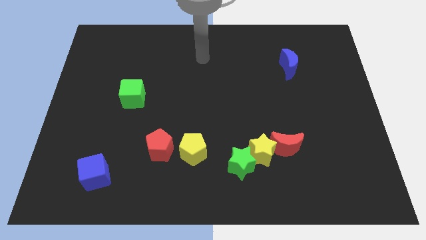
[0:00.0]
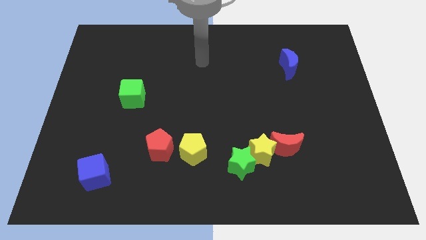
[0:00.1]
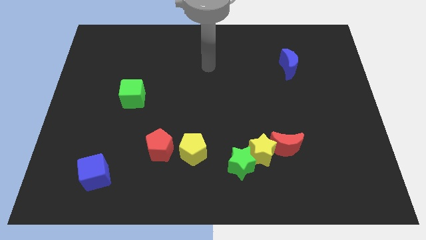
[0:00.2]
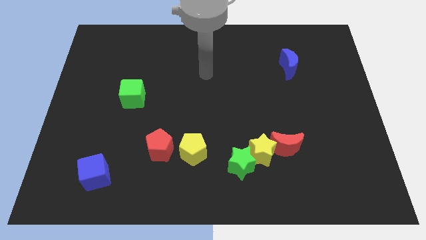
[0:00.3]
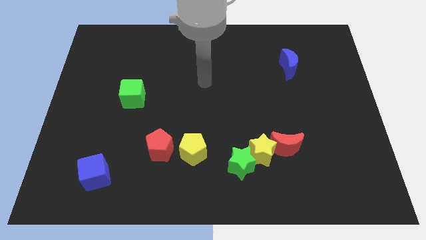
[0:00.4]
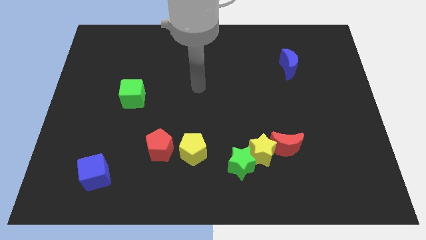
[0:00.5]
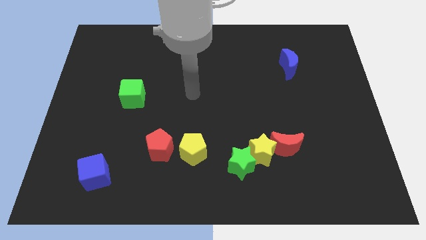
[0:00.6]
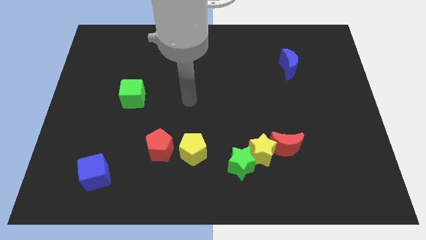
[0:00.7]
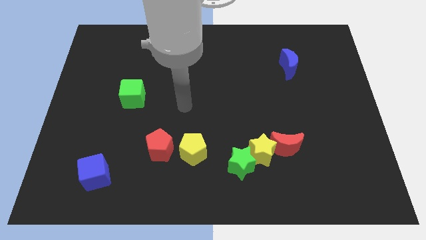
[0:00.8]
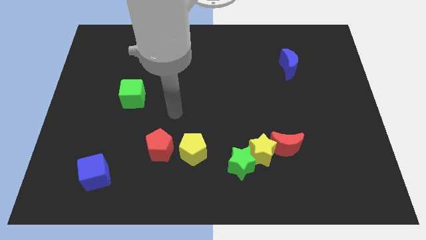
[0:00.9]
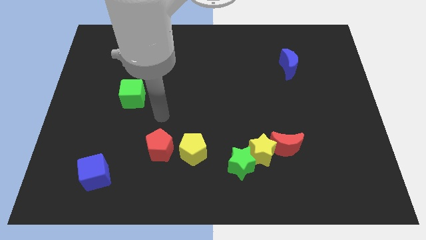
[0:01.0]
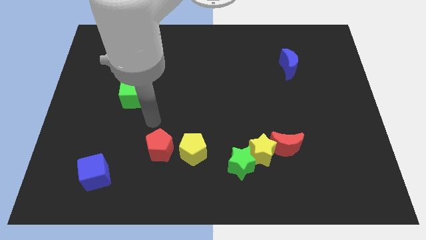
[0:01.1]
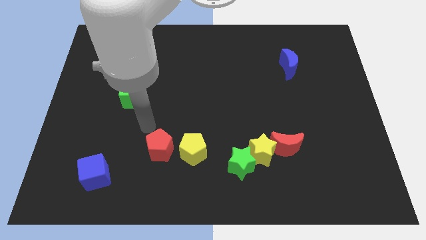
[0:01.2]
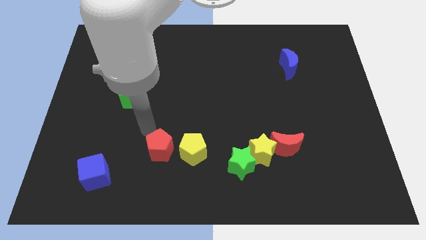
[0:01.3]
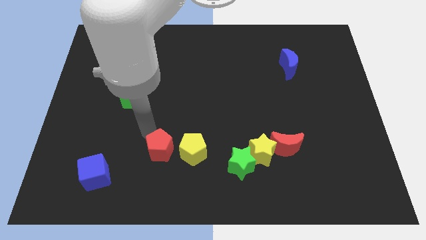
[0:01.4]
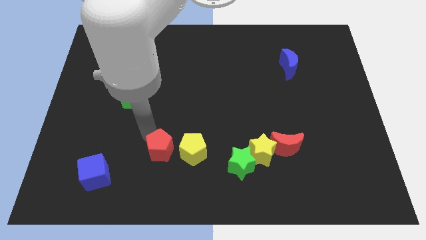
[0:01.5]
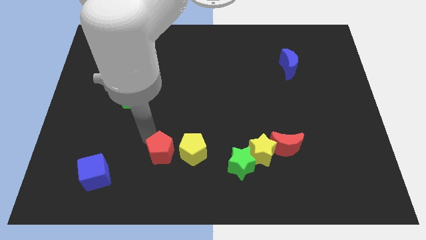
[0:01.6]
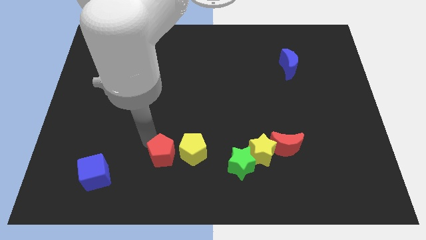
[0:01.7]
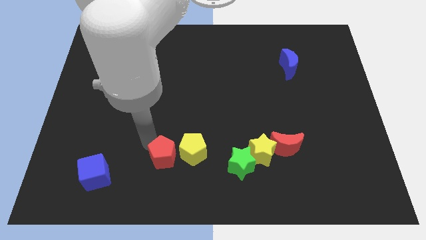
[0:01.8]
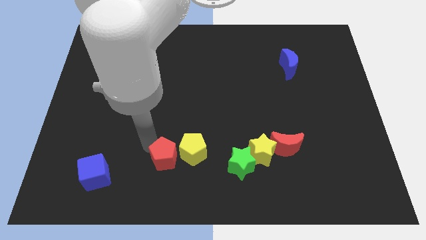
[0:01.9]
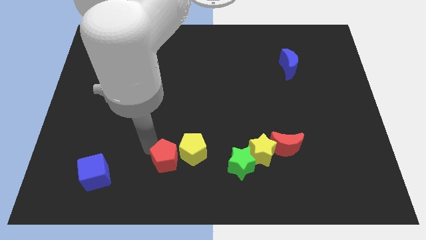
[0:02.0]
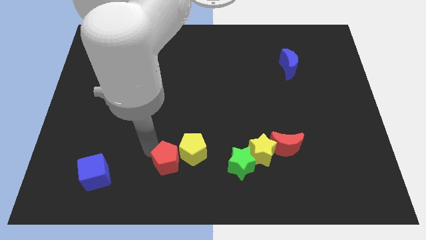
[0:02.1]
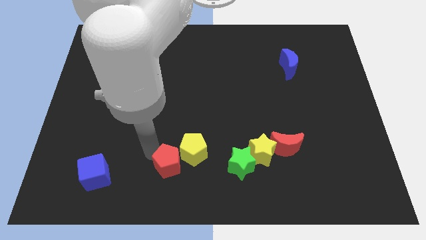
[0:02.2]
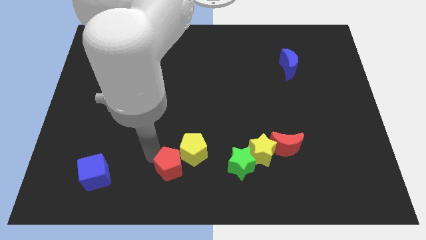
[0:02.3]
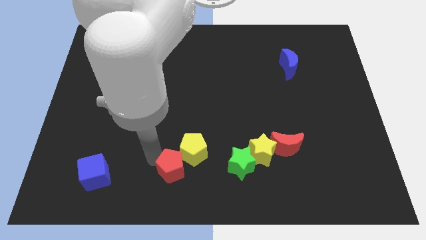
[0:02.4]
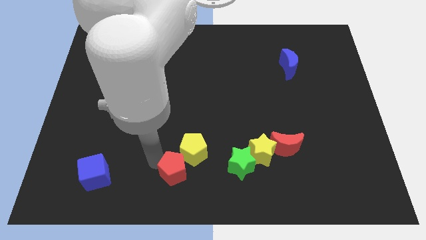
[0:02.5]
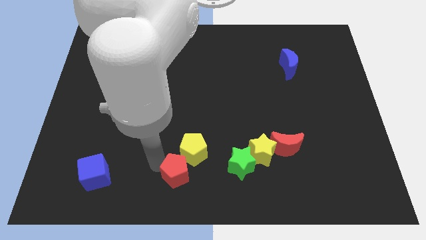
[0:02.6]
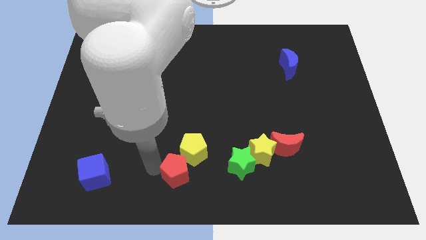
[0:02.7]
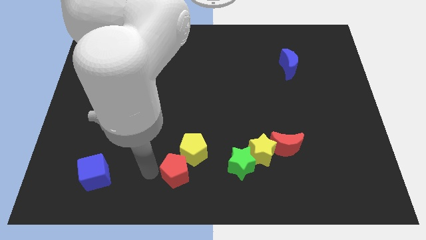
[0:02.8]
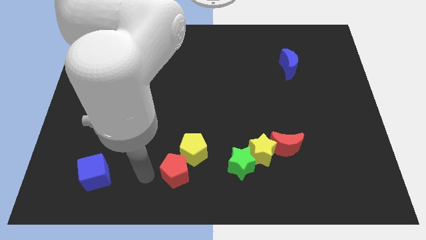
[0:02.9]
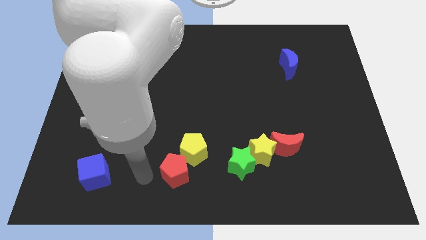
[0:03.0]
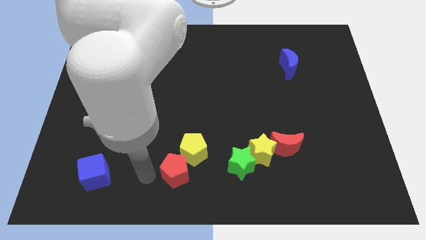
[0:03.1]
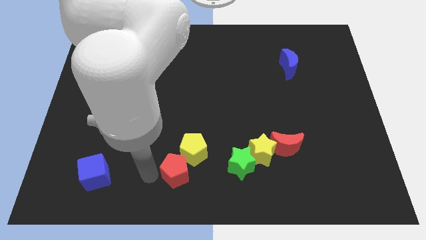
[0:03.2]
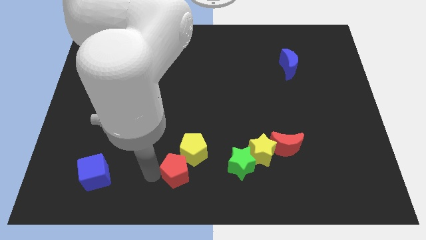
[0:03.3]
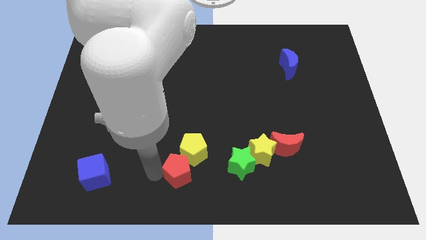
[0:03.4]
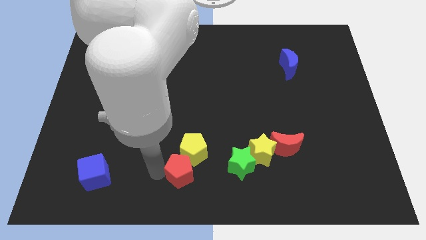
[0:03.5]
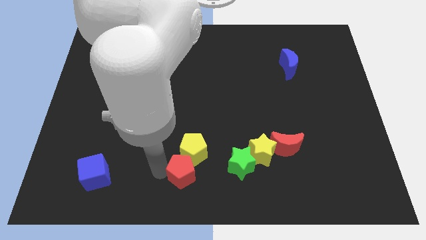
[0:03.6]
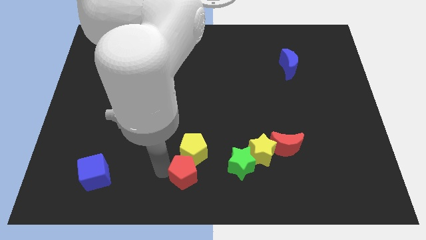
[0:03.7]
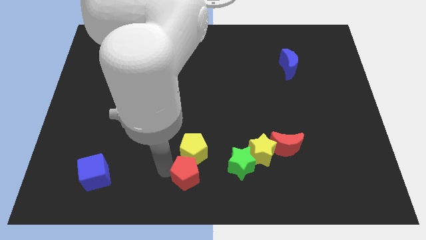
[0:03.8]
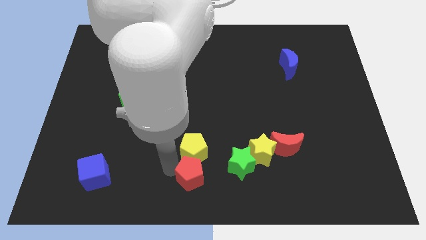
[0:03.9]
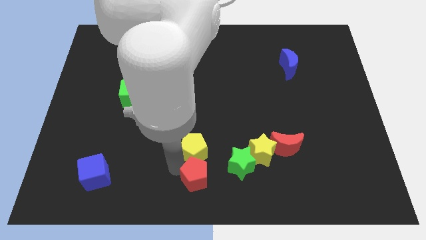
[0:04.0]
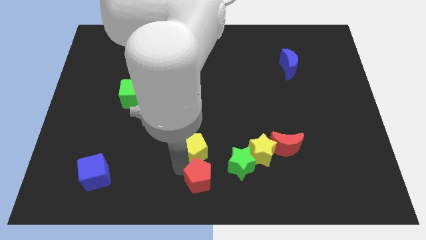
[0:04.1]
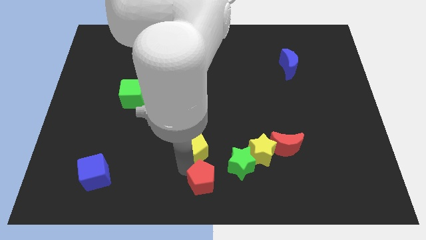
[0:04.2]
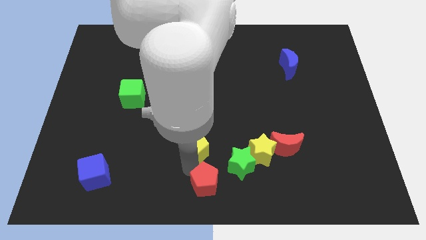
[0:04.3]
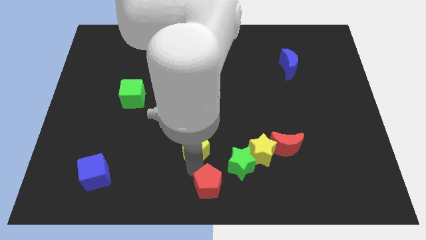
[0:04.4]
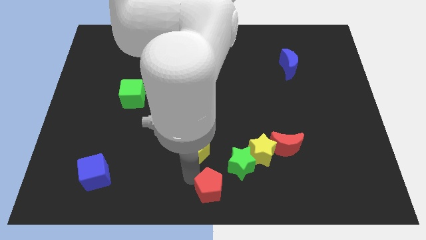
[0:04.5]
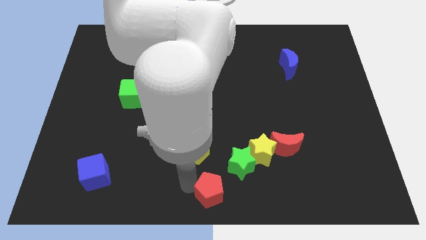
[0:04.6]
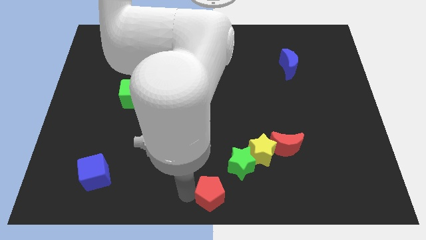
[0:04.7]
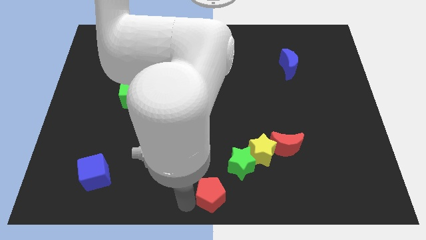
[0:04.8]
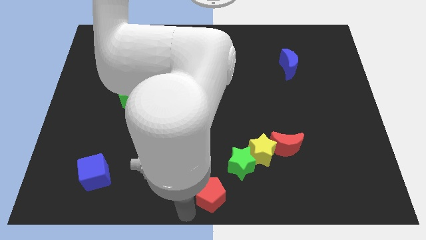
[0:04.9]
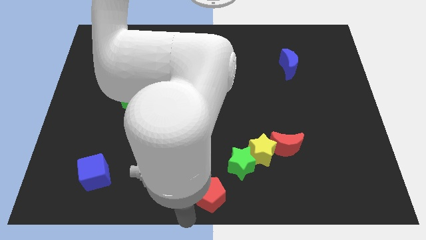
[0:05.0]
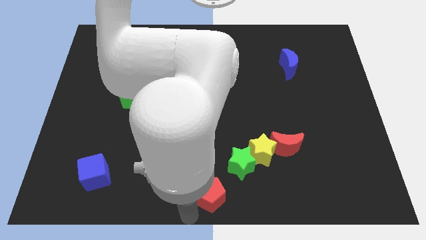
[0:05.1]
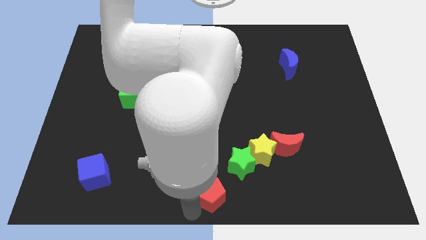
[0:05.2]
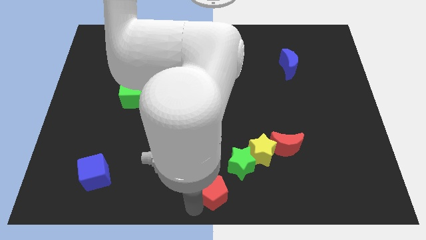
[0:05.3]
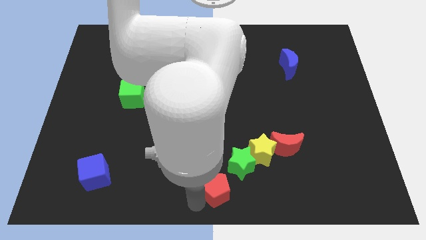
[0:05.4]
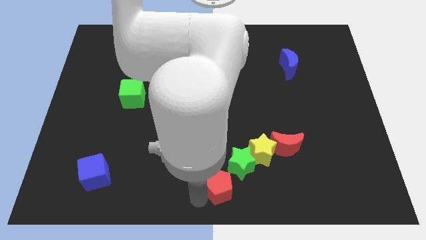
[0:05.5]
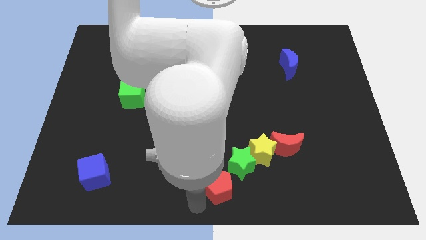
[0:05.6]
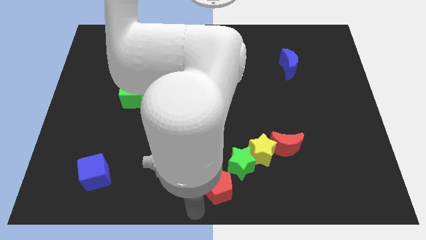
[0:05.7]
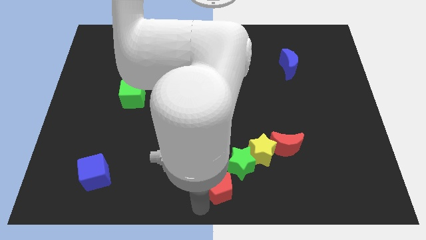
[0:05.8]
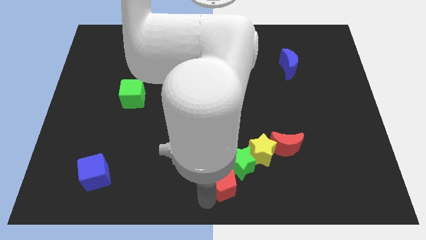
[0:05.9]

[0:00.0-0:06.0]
put the red pentagon towards the green star
